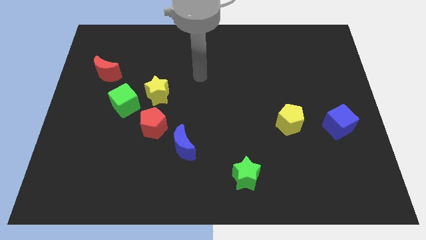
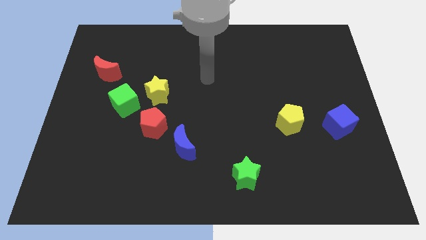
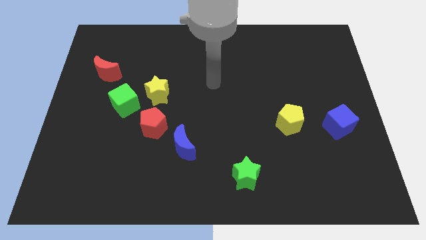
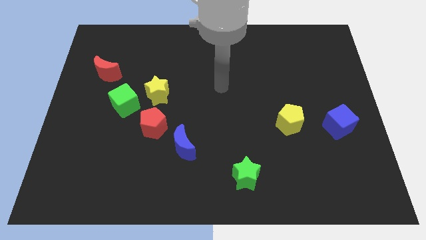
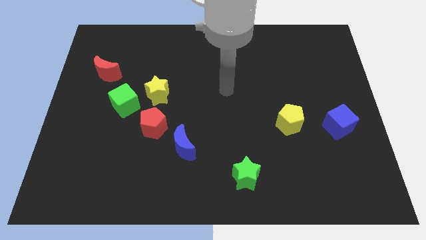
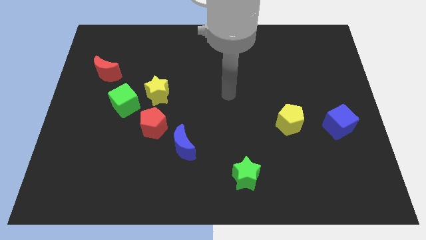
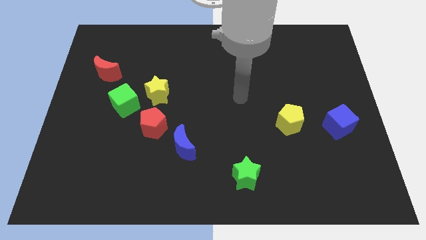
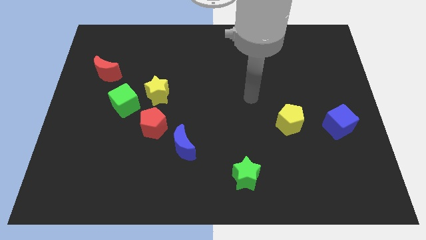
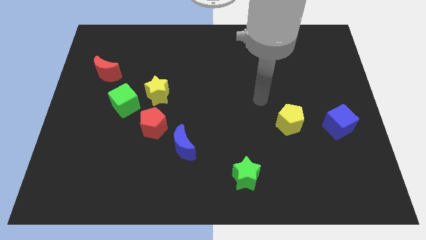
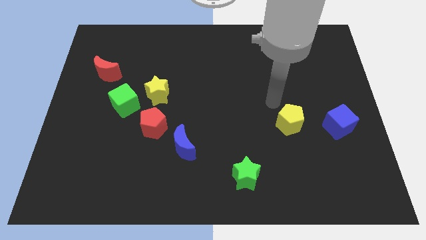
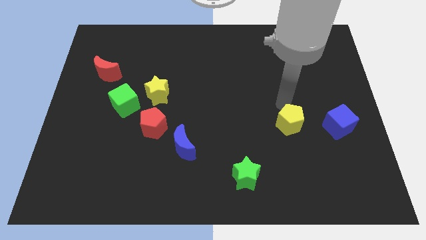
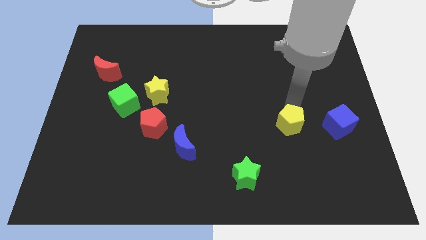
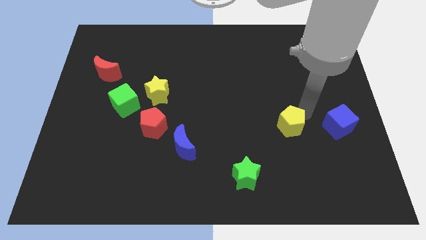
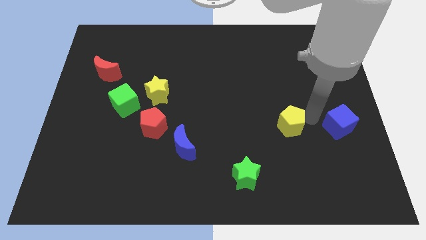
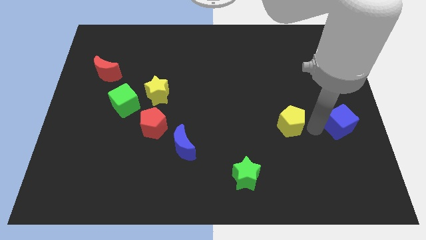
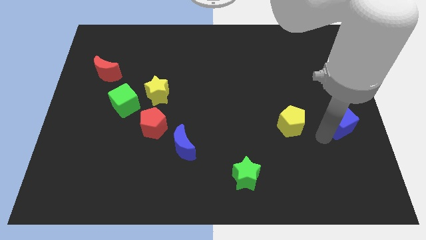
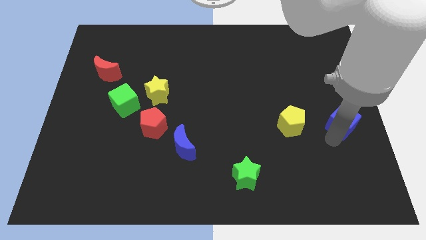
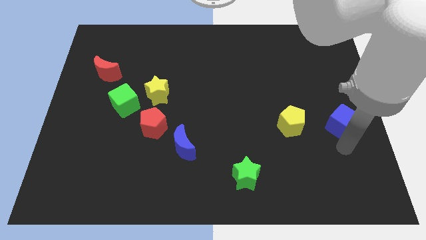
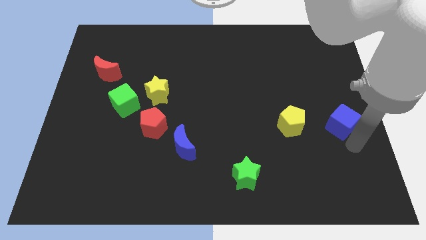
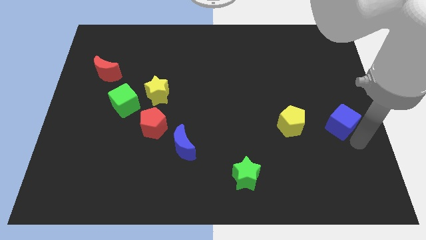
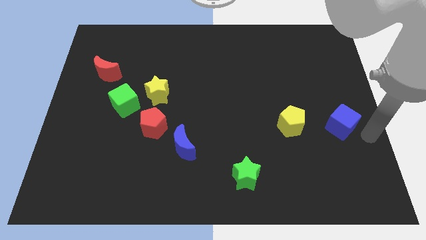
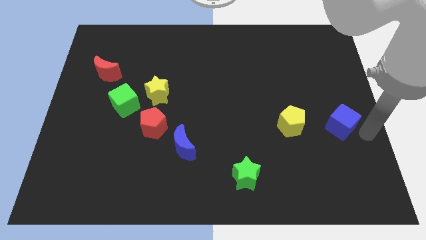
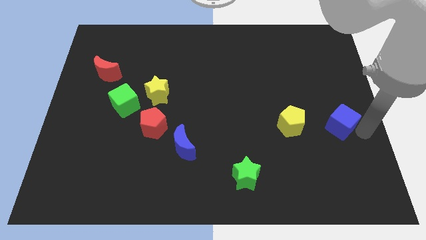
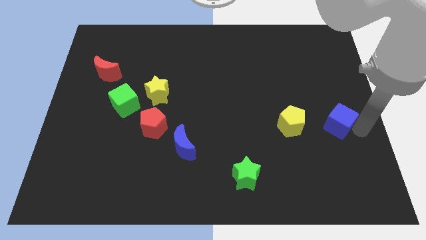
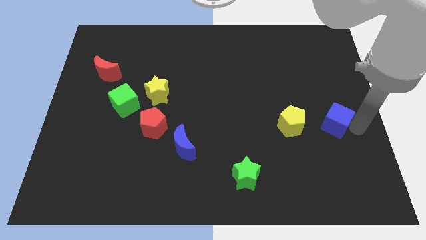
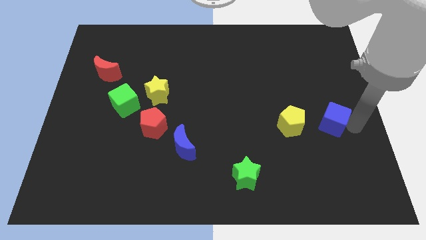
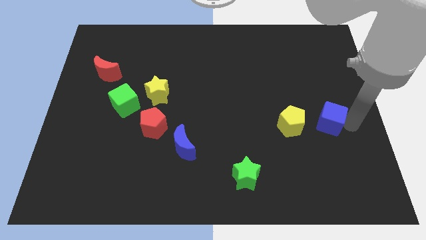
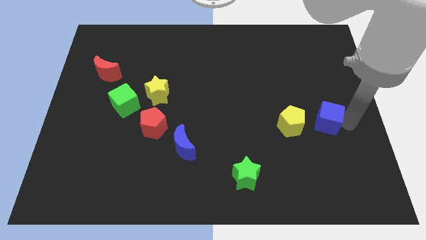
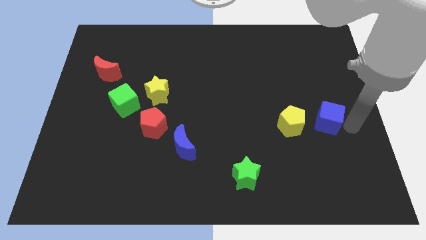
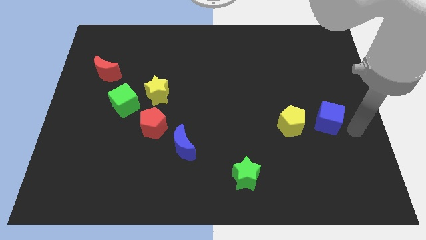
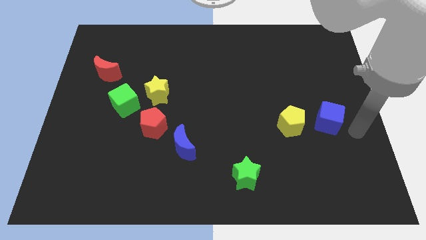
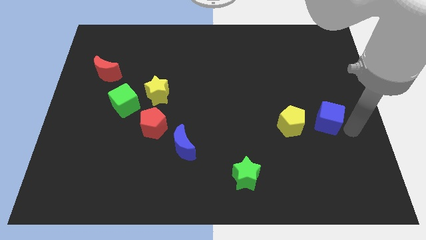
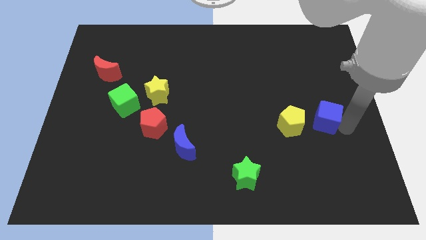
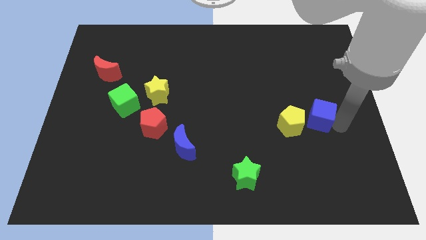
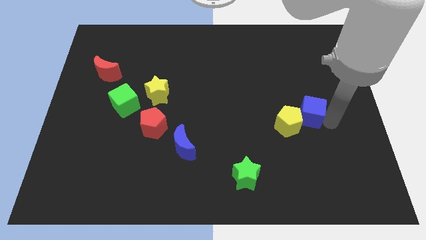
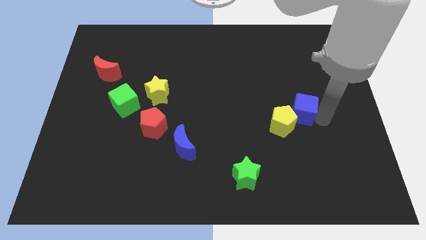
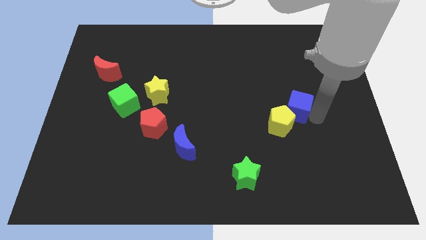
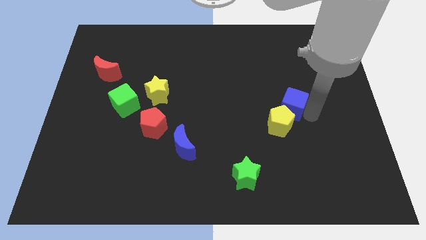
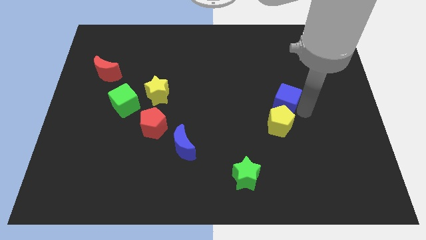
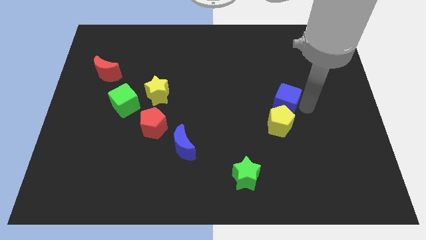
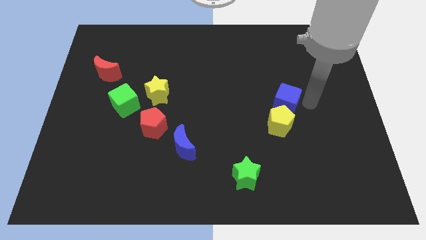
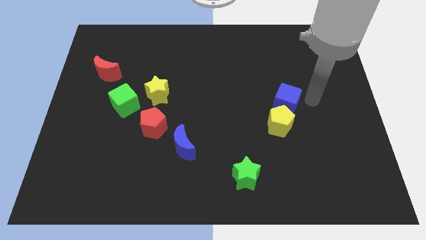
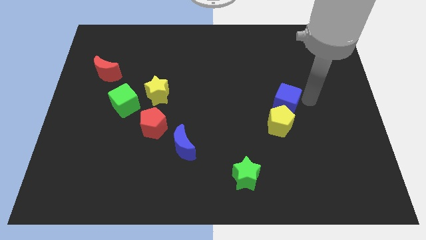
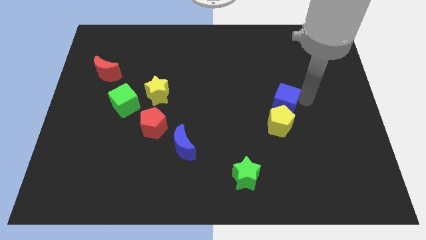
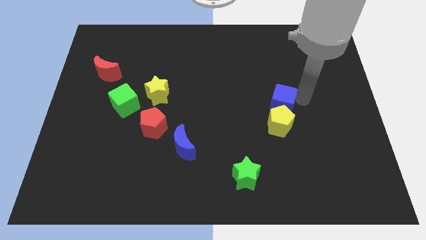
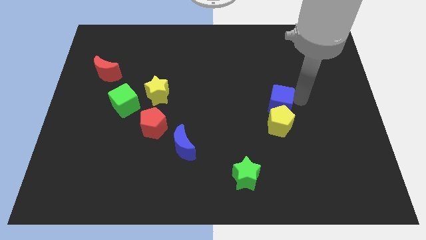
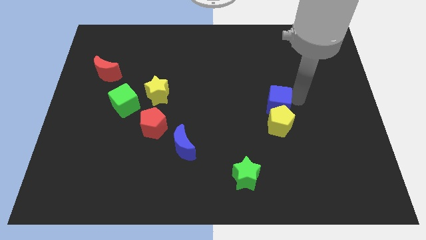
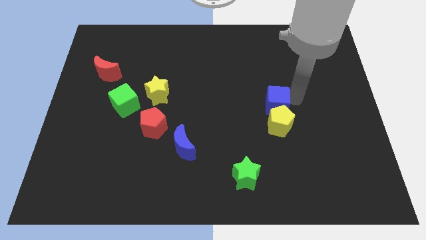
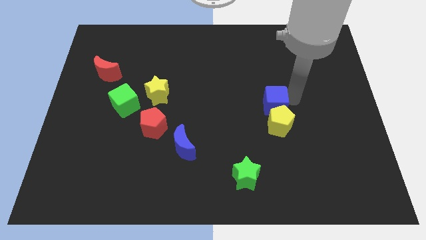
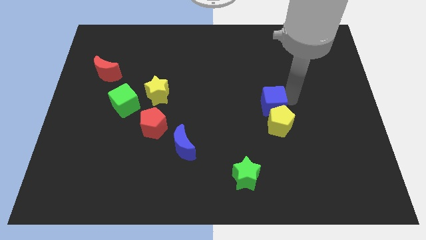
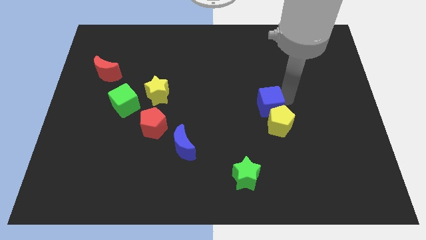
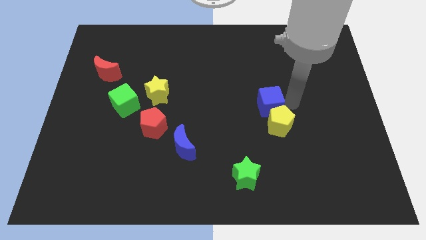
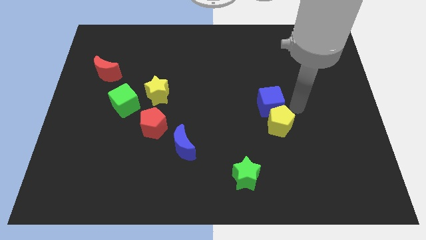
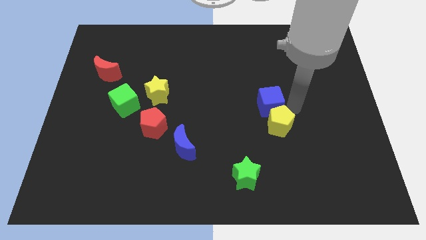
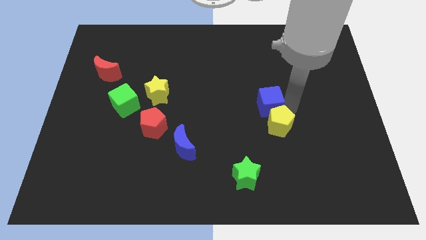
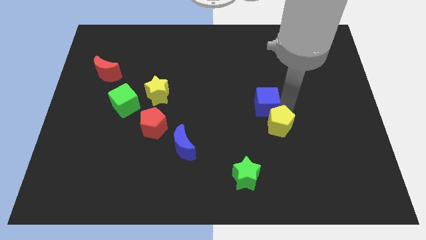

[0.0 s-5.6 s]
move the blue cube to the center of the board

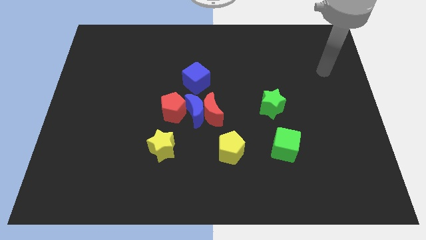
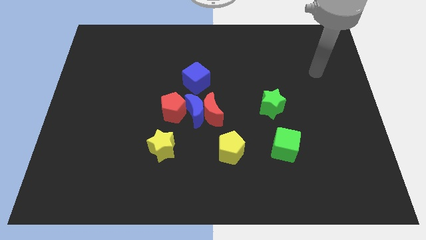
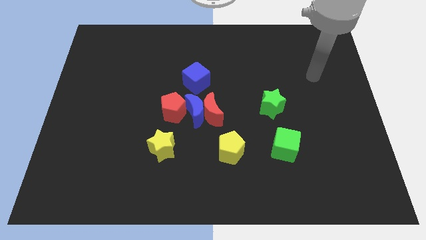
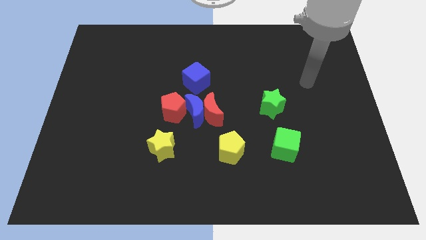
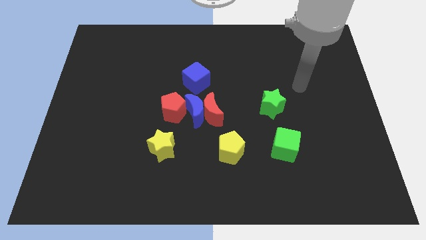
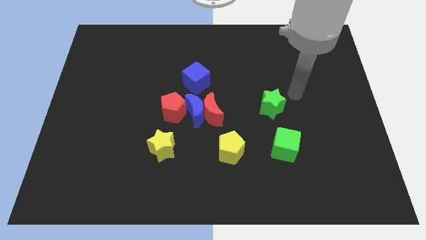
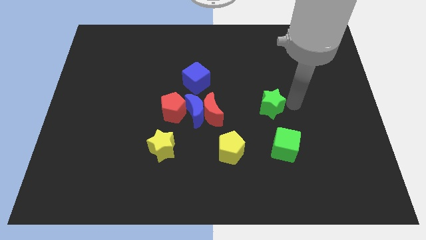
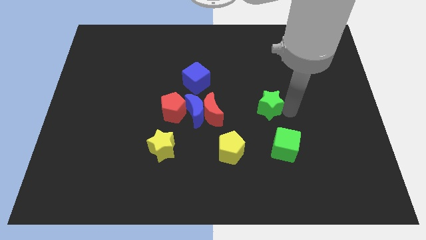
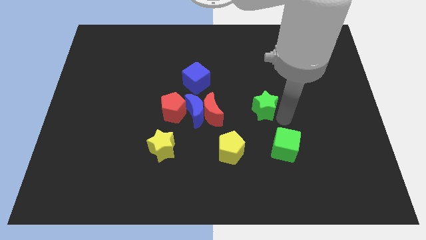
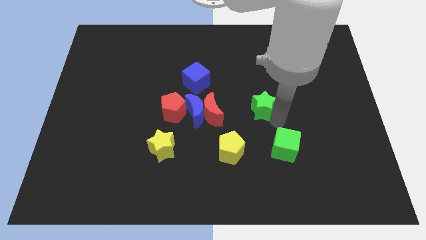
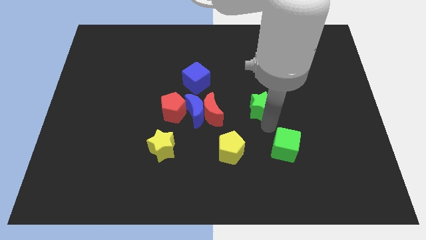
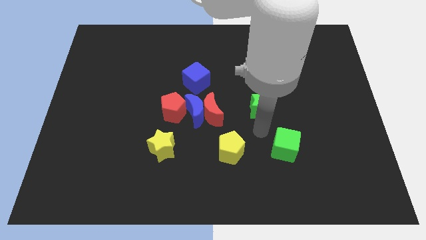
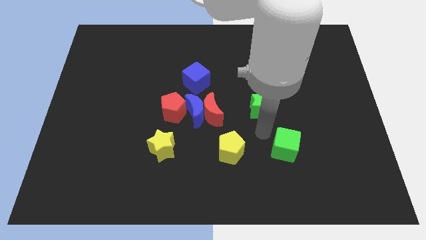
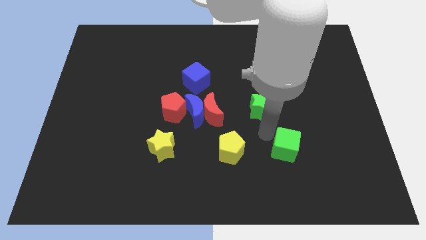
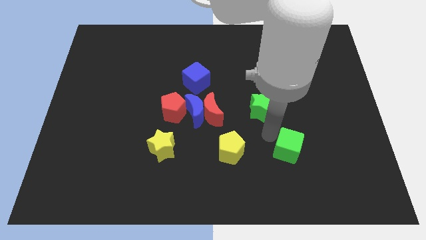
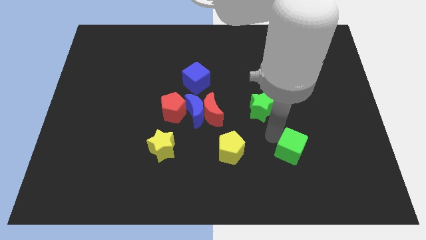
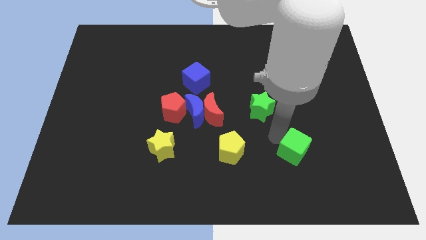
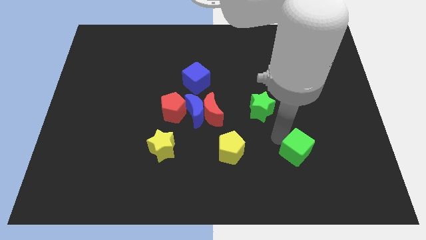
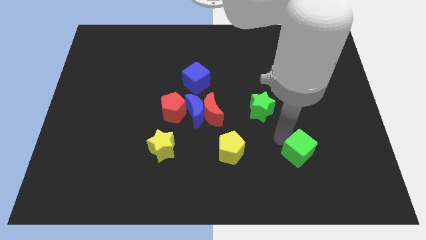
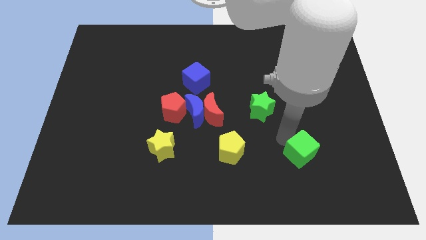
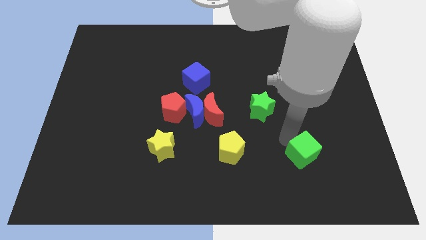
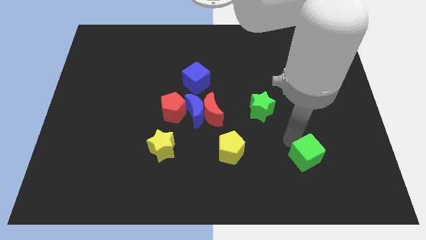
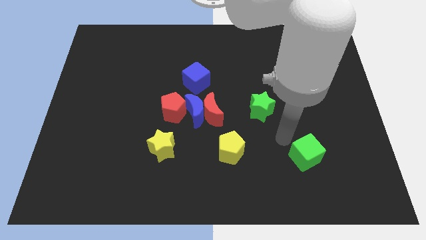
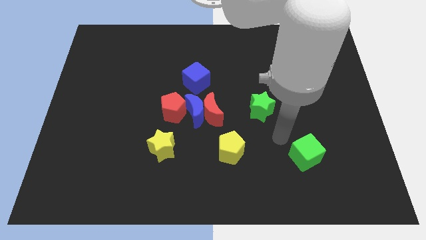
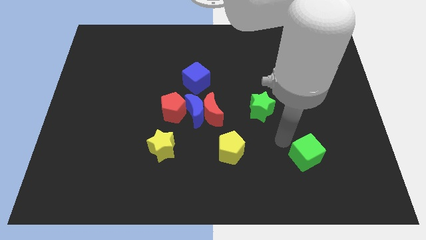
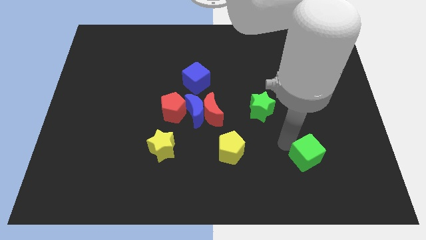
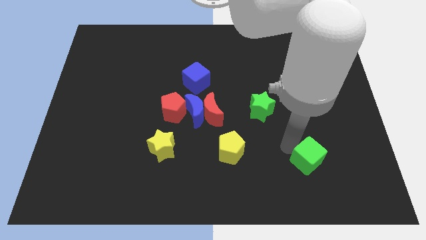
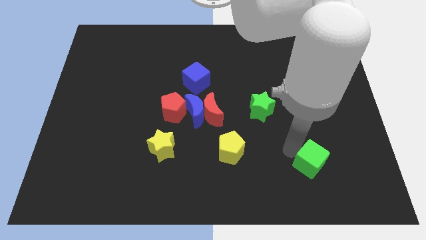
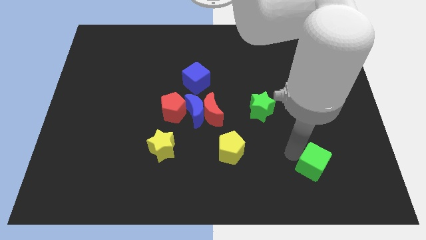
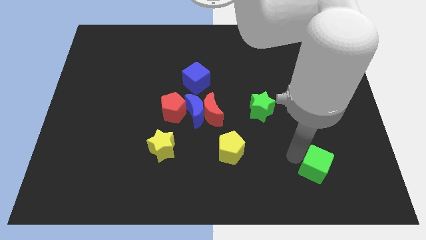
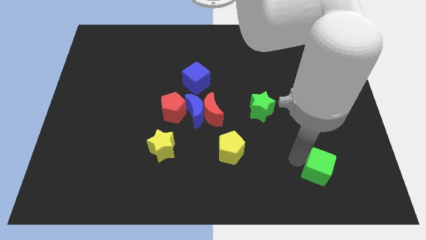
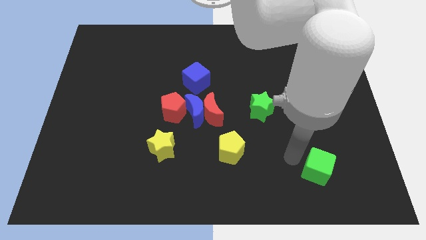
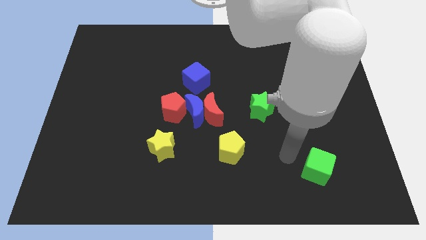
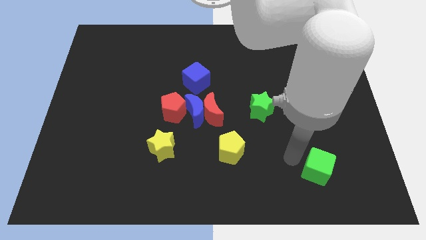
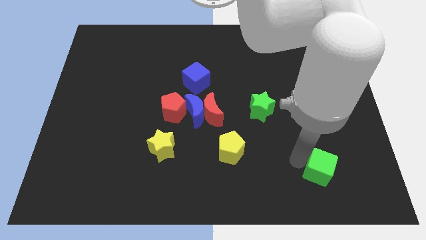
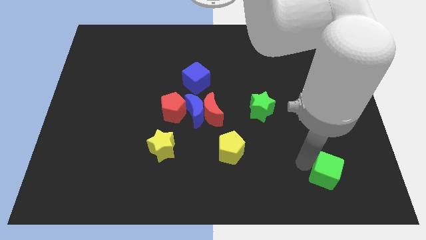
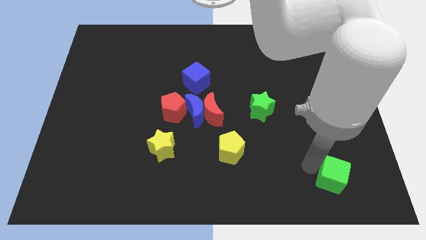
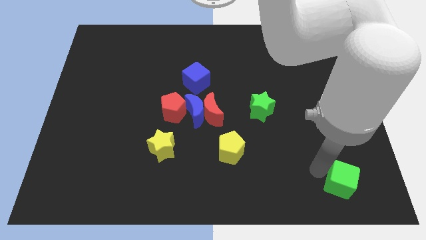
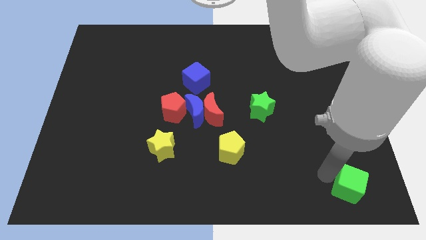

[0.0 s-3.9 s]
push the green cube to the bottom right corner
